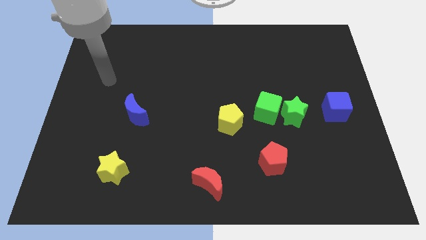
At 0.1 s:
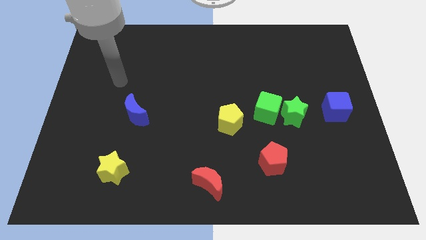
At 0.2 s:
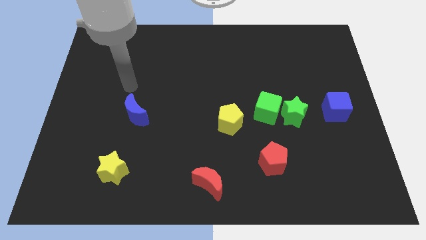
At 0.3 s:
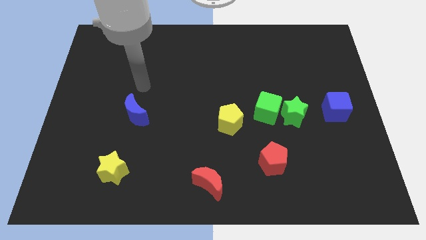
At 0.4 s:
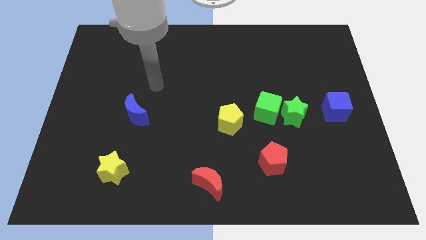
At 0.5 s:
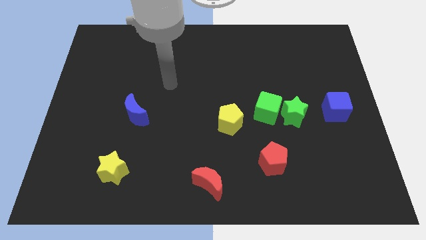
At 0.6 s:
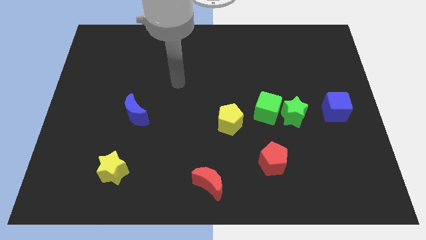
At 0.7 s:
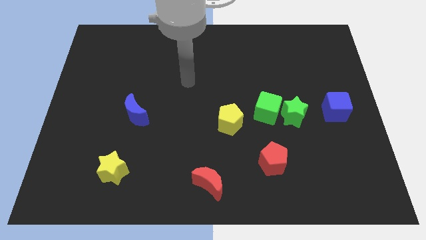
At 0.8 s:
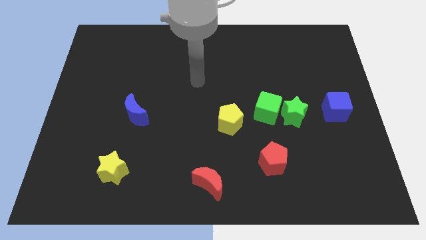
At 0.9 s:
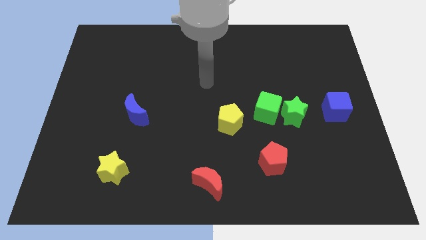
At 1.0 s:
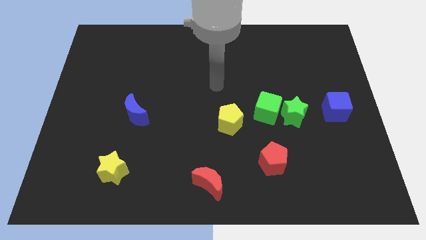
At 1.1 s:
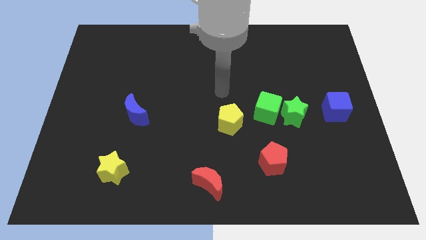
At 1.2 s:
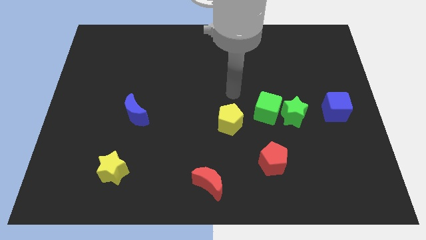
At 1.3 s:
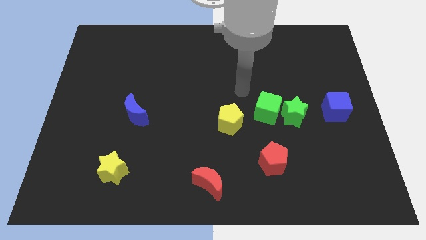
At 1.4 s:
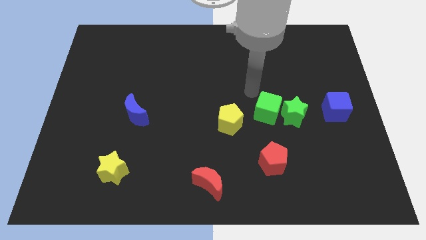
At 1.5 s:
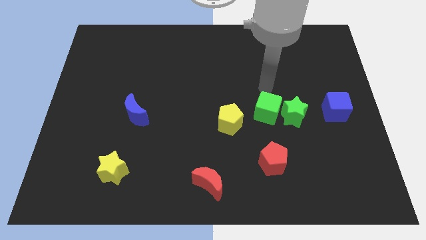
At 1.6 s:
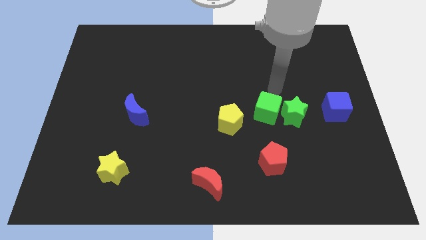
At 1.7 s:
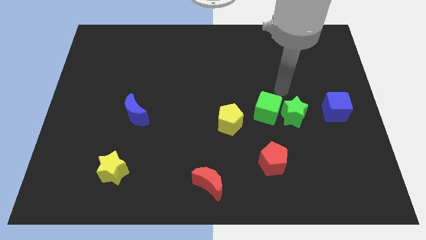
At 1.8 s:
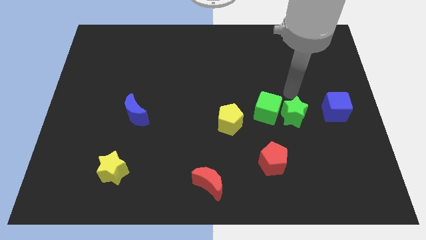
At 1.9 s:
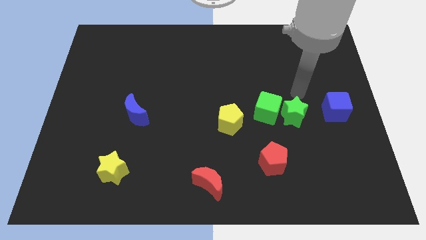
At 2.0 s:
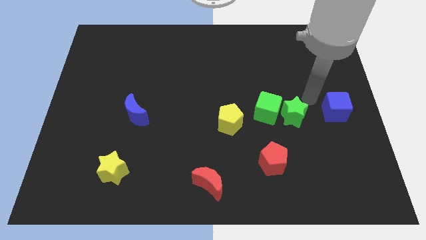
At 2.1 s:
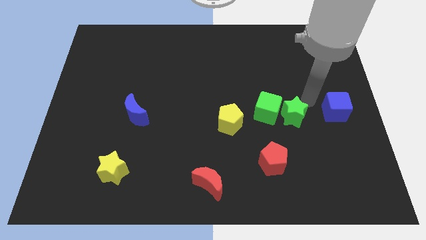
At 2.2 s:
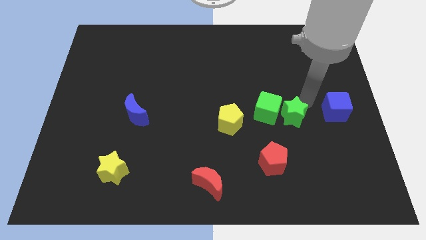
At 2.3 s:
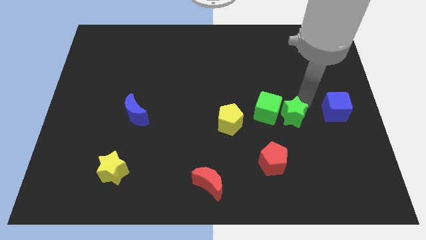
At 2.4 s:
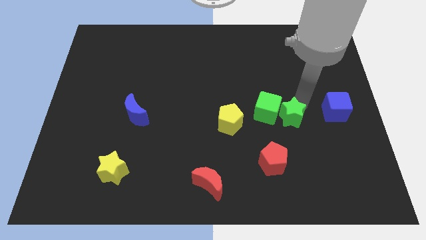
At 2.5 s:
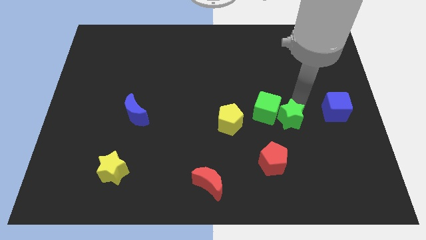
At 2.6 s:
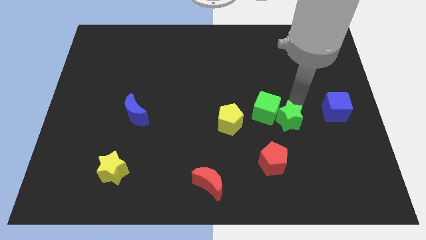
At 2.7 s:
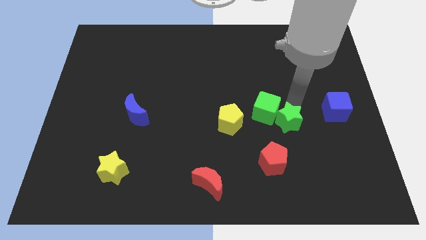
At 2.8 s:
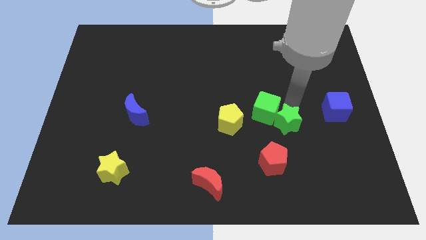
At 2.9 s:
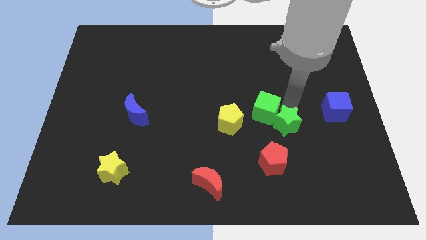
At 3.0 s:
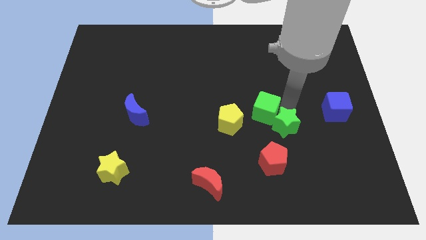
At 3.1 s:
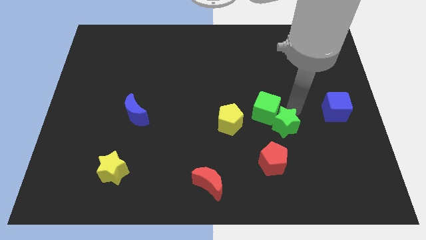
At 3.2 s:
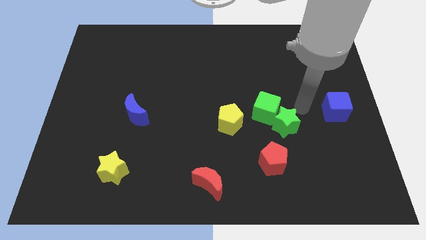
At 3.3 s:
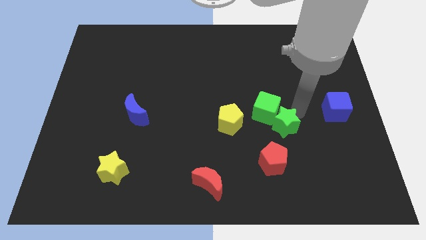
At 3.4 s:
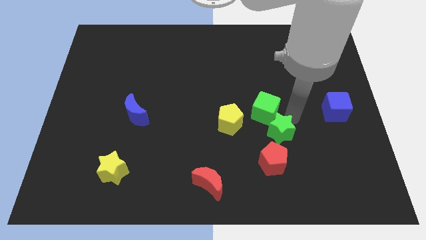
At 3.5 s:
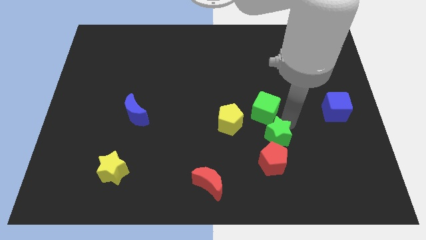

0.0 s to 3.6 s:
slightly slide the green star downwards and to the left diagonally

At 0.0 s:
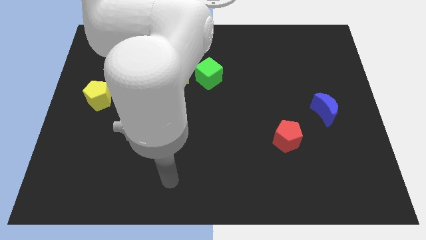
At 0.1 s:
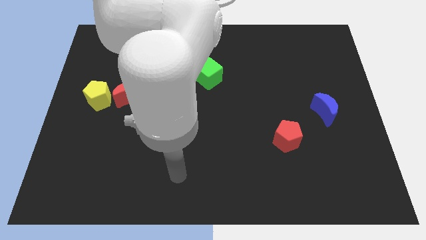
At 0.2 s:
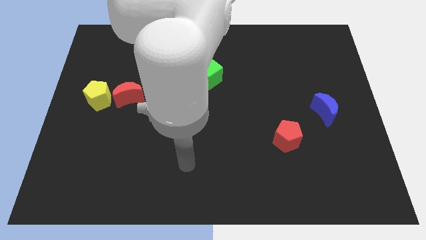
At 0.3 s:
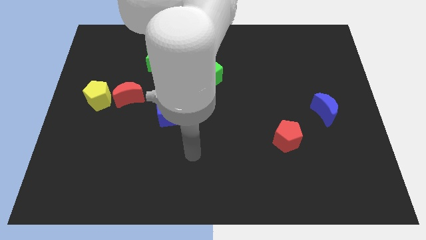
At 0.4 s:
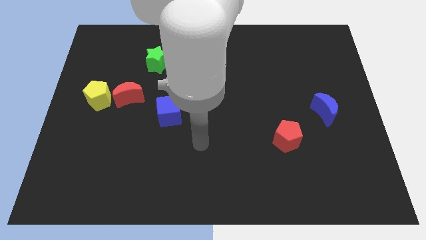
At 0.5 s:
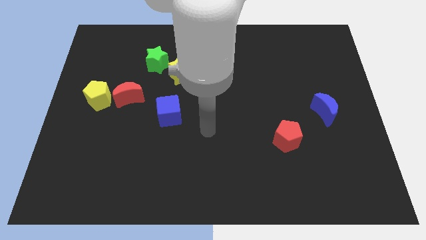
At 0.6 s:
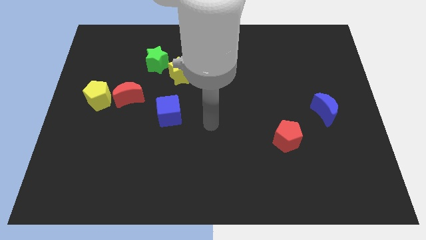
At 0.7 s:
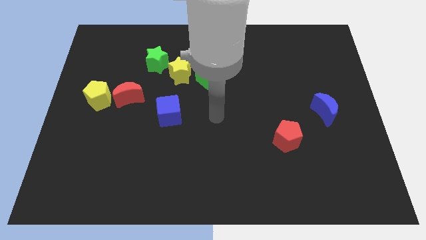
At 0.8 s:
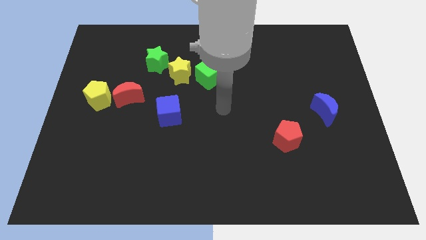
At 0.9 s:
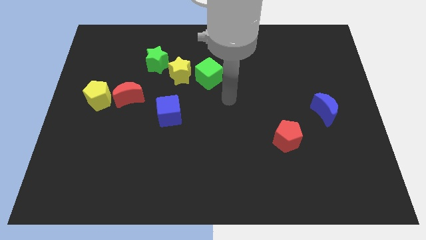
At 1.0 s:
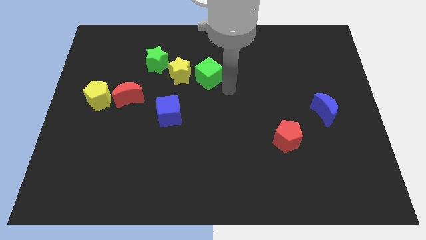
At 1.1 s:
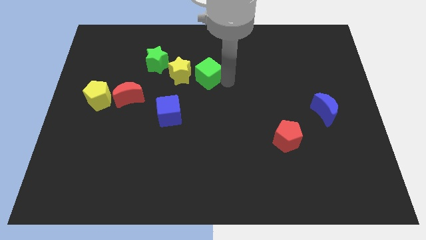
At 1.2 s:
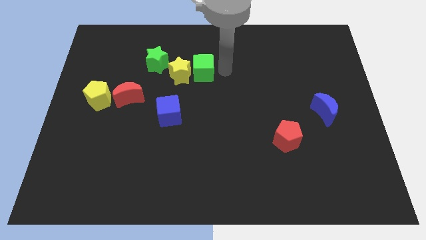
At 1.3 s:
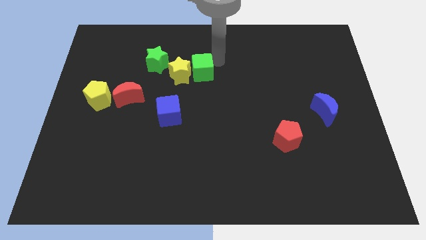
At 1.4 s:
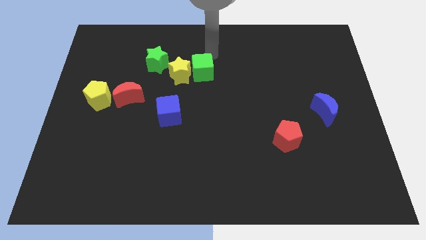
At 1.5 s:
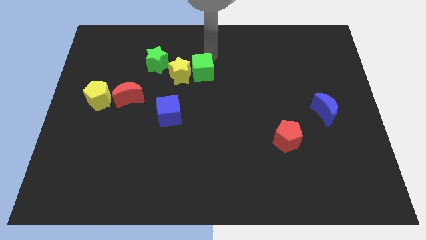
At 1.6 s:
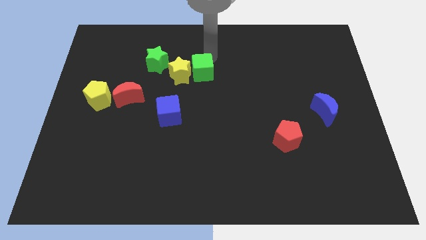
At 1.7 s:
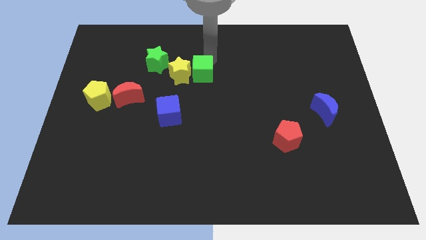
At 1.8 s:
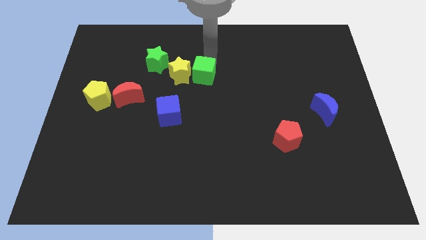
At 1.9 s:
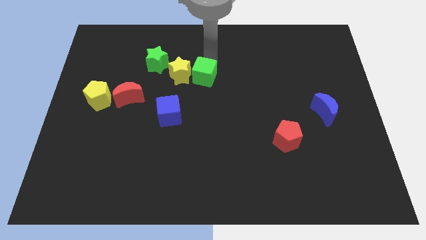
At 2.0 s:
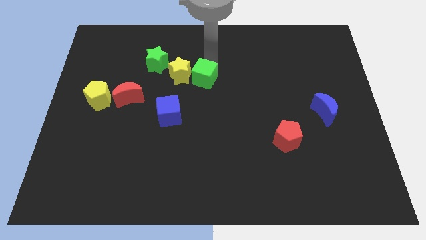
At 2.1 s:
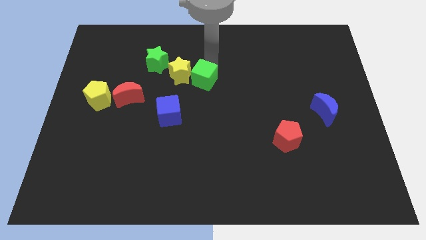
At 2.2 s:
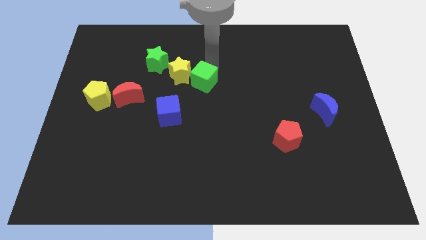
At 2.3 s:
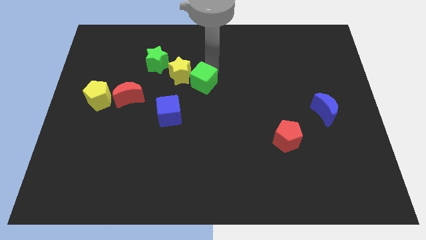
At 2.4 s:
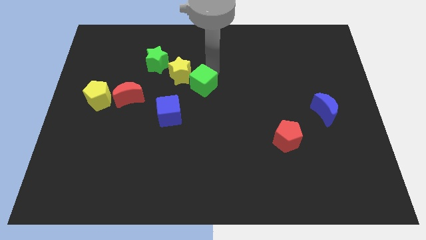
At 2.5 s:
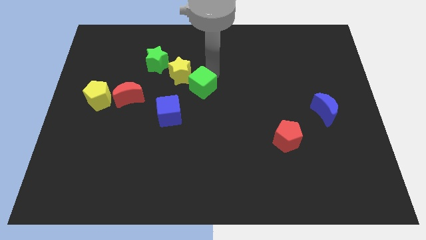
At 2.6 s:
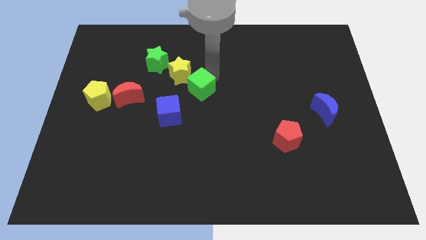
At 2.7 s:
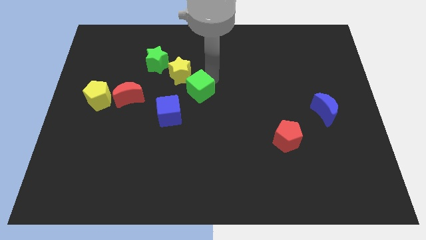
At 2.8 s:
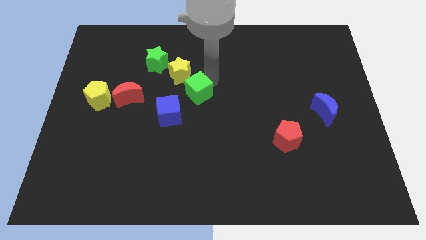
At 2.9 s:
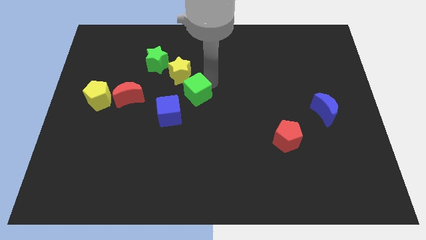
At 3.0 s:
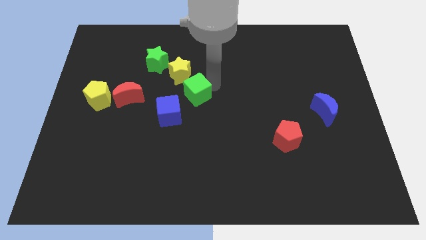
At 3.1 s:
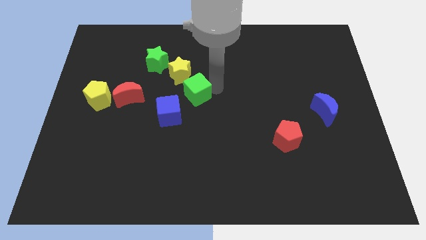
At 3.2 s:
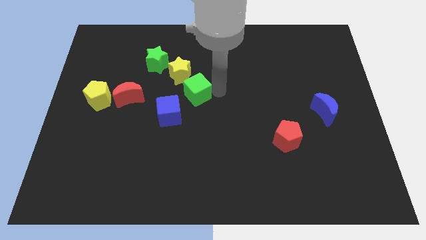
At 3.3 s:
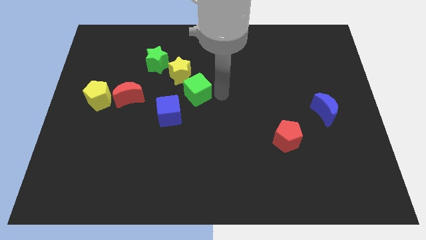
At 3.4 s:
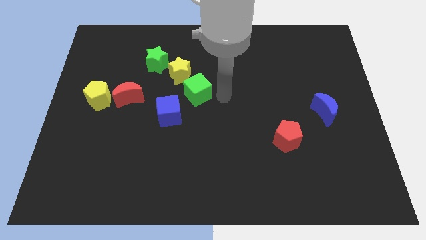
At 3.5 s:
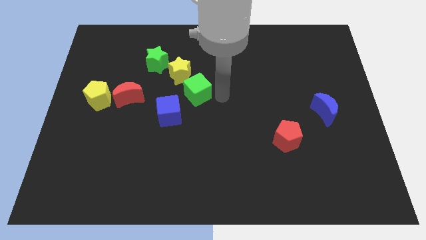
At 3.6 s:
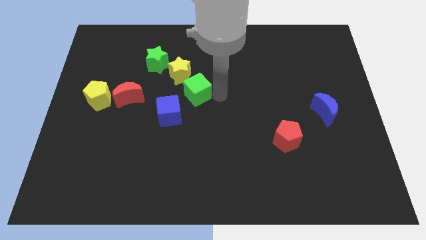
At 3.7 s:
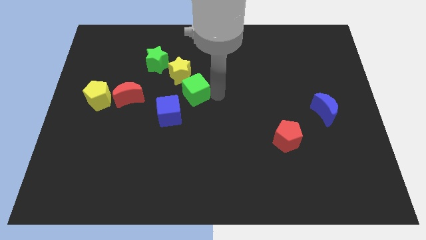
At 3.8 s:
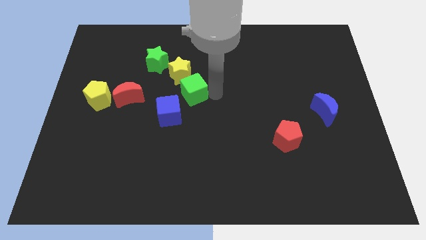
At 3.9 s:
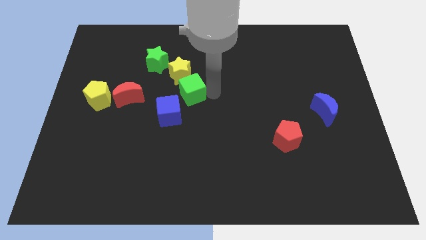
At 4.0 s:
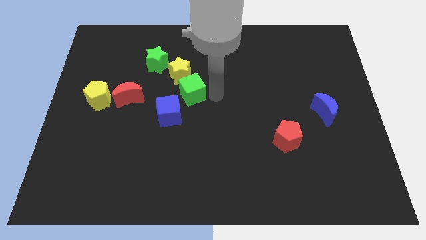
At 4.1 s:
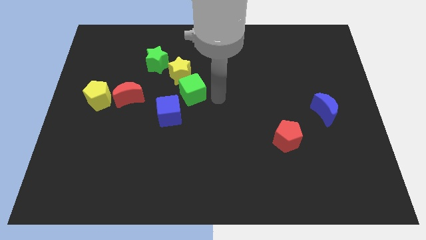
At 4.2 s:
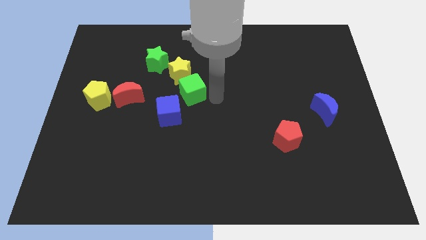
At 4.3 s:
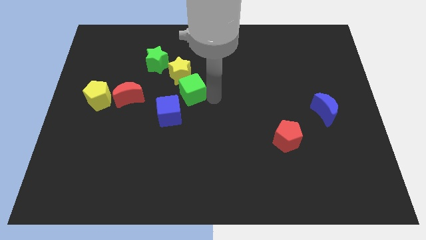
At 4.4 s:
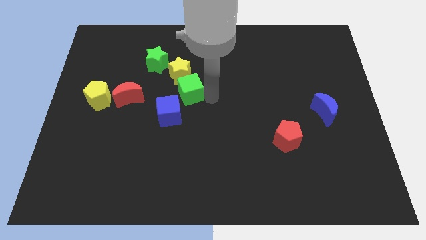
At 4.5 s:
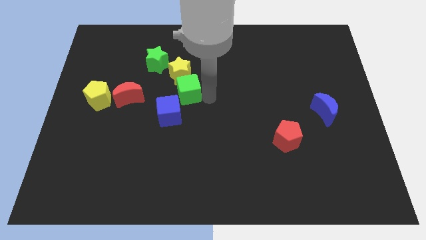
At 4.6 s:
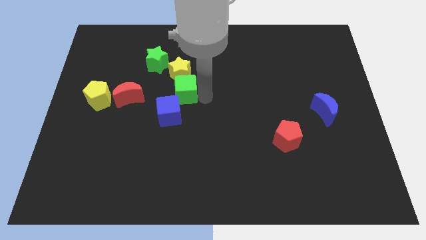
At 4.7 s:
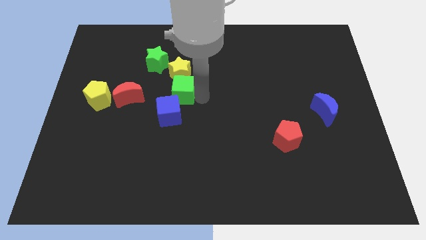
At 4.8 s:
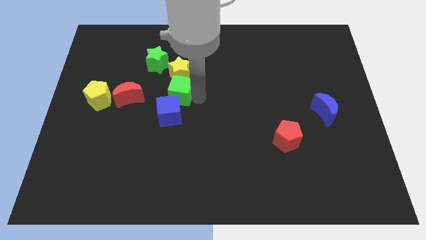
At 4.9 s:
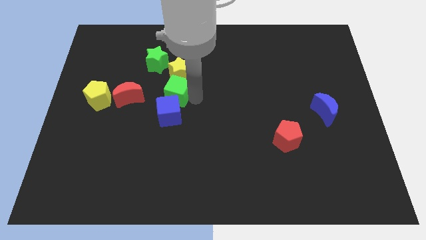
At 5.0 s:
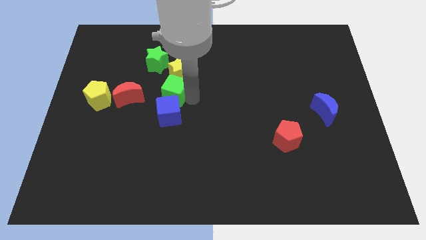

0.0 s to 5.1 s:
push the green cube a little to the left
